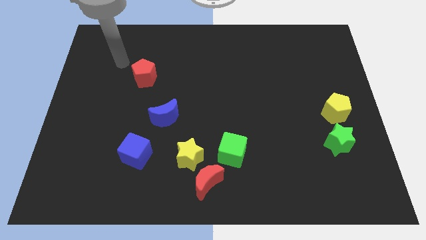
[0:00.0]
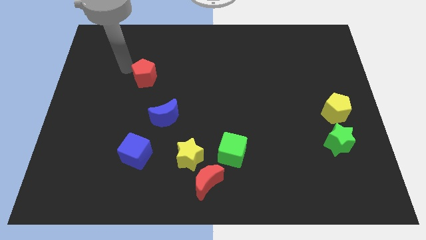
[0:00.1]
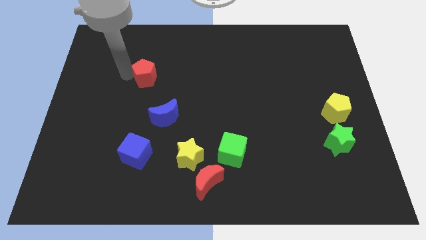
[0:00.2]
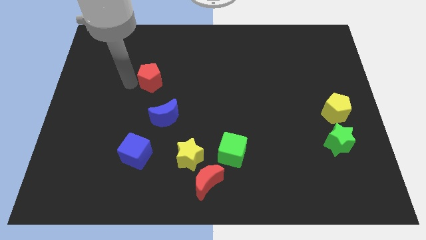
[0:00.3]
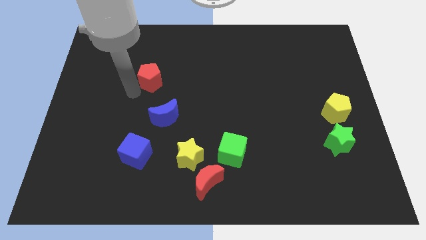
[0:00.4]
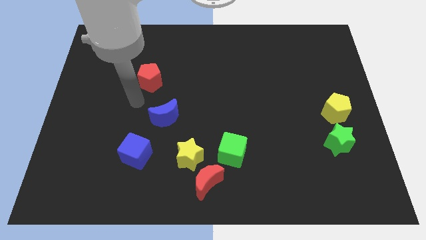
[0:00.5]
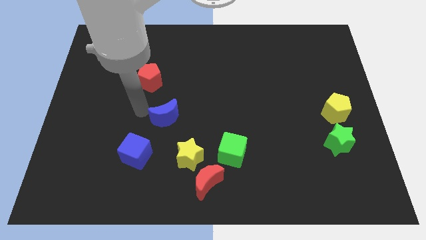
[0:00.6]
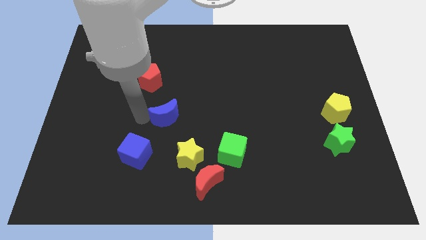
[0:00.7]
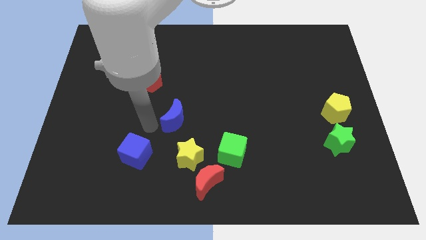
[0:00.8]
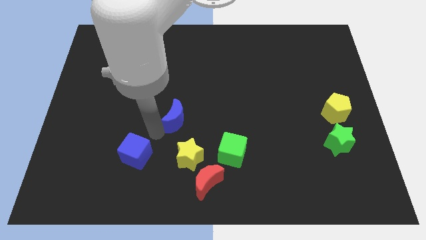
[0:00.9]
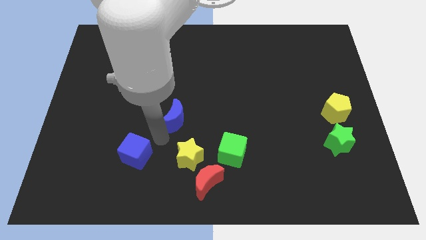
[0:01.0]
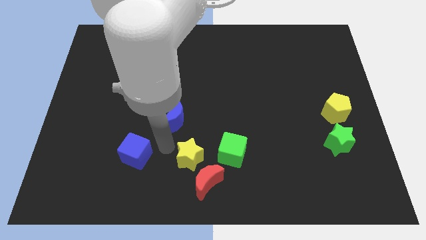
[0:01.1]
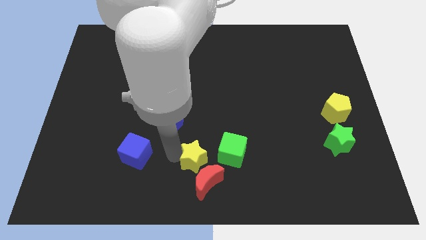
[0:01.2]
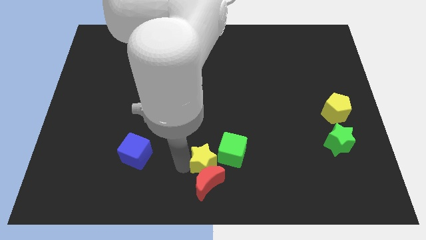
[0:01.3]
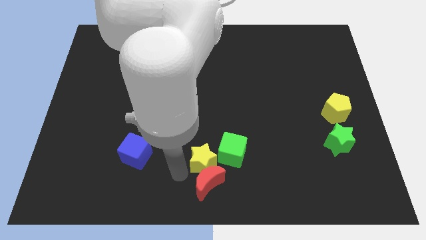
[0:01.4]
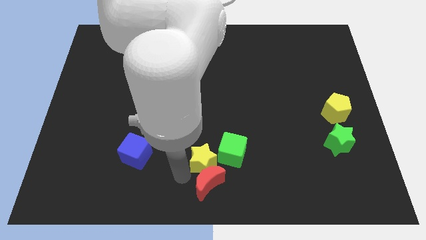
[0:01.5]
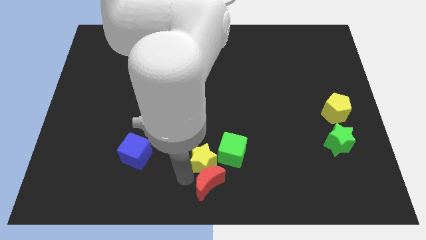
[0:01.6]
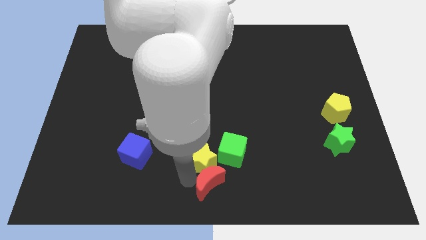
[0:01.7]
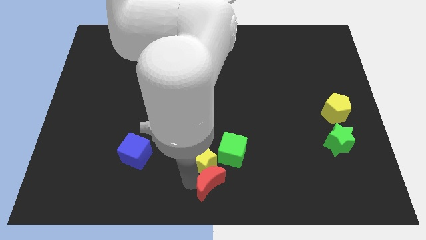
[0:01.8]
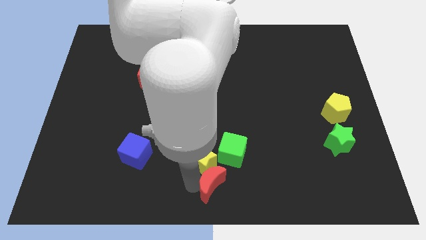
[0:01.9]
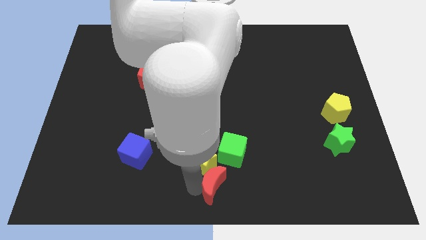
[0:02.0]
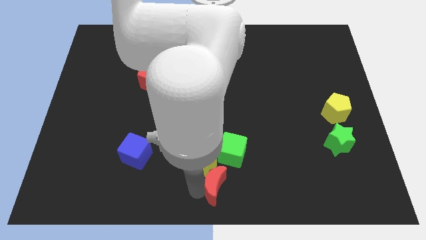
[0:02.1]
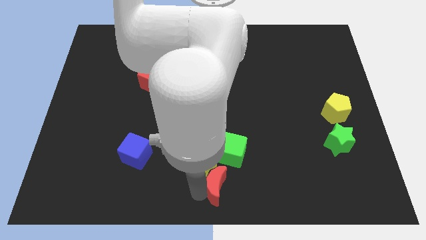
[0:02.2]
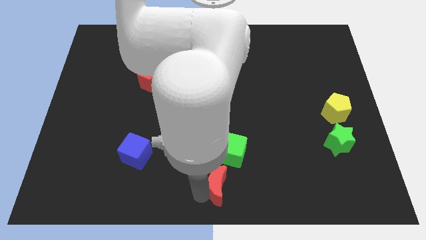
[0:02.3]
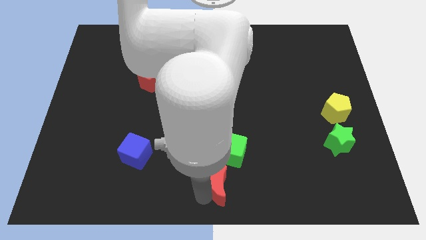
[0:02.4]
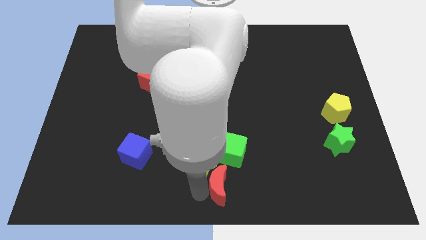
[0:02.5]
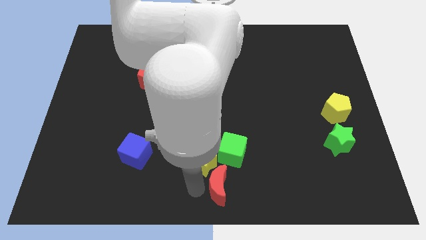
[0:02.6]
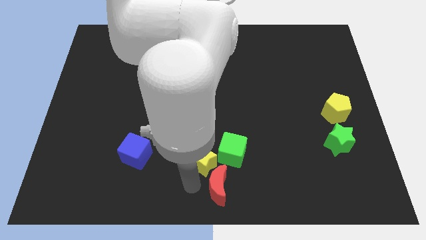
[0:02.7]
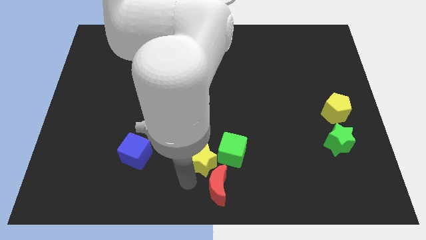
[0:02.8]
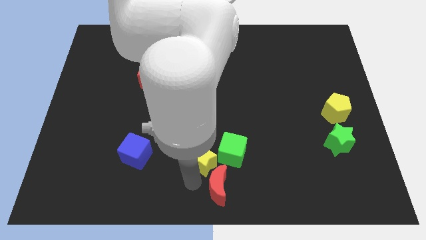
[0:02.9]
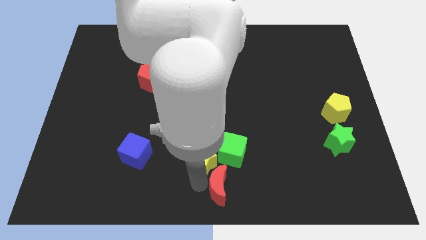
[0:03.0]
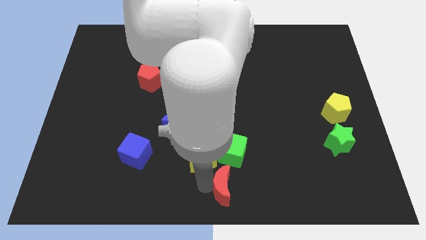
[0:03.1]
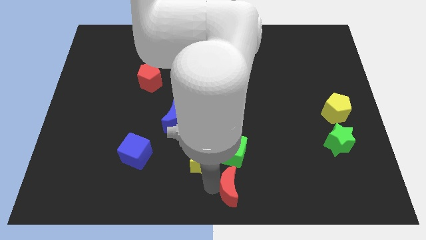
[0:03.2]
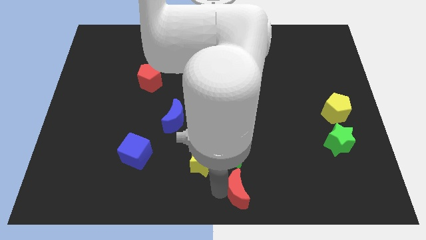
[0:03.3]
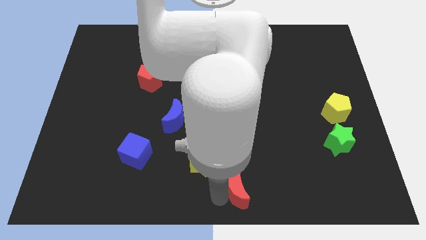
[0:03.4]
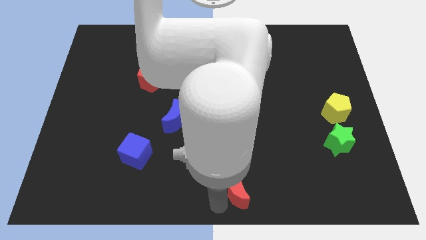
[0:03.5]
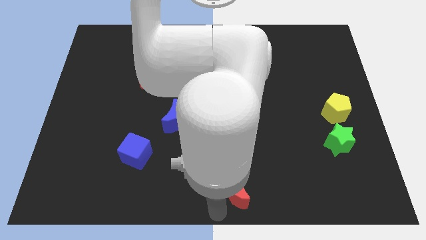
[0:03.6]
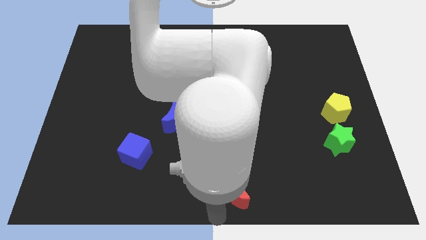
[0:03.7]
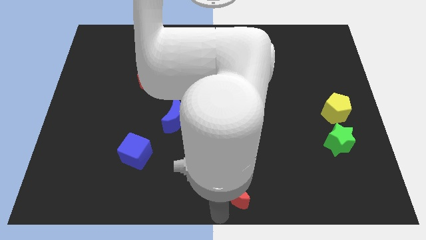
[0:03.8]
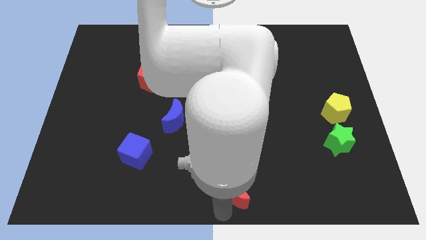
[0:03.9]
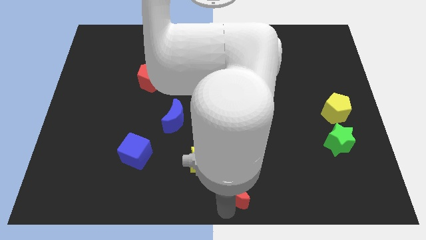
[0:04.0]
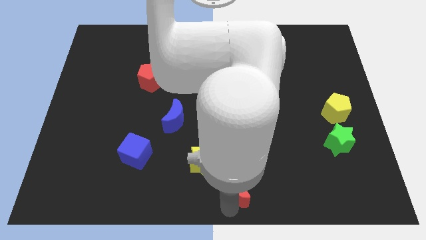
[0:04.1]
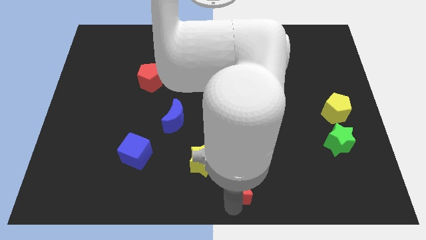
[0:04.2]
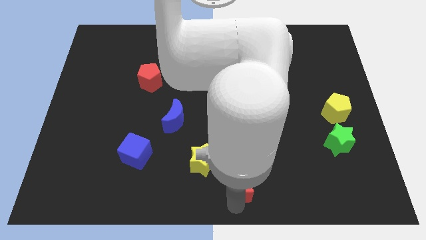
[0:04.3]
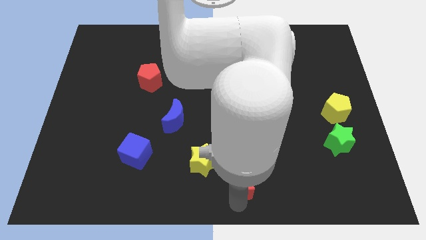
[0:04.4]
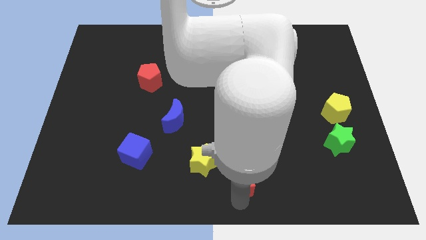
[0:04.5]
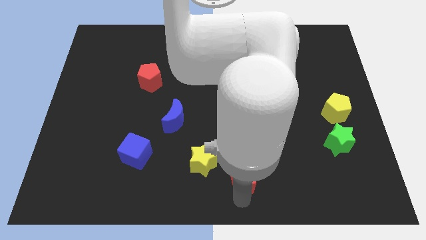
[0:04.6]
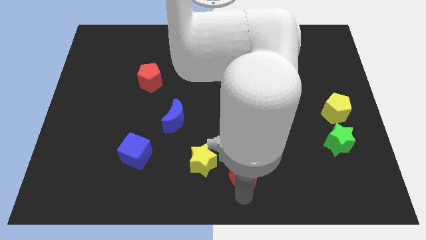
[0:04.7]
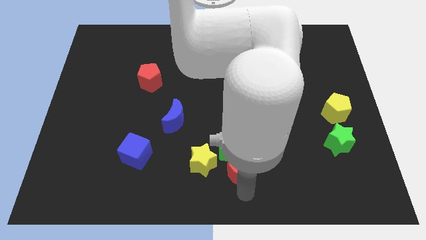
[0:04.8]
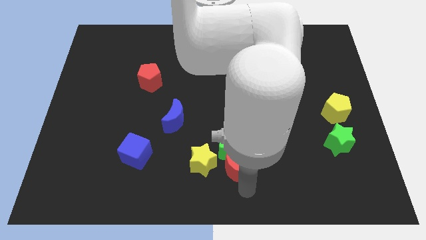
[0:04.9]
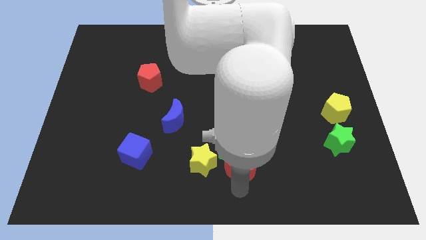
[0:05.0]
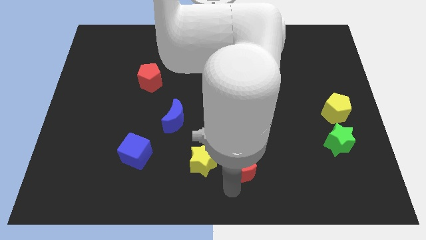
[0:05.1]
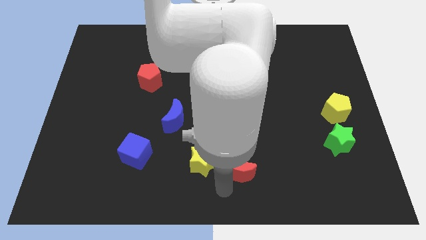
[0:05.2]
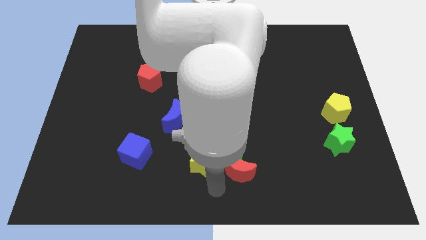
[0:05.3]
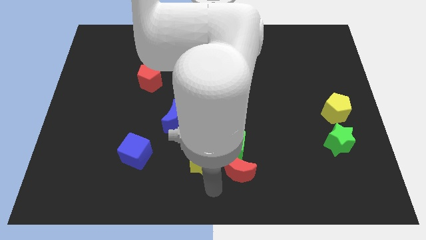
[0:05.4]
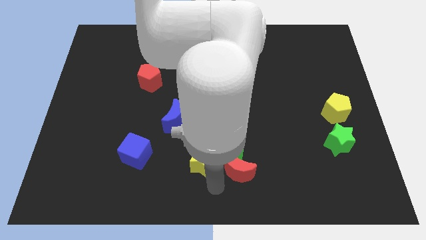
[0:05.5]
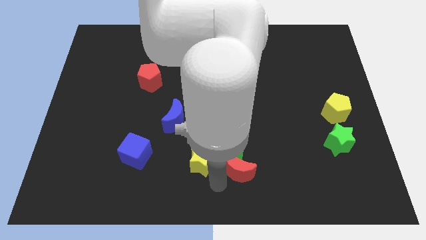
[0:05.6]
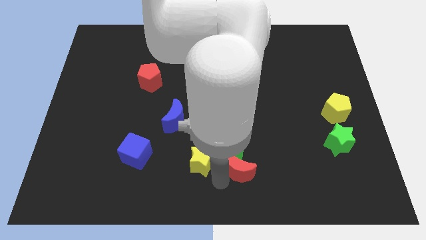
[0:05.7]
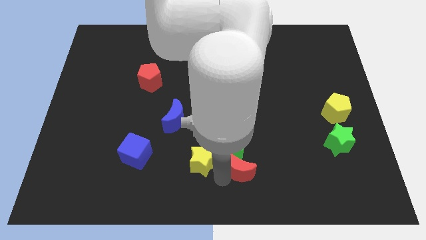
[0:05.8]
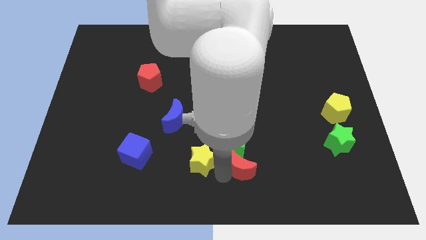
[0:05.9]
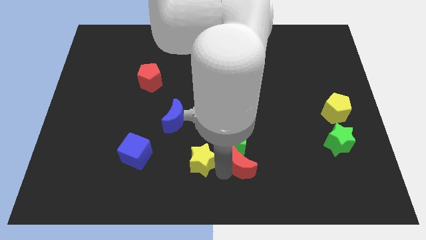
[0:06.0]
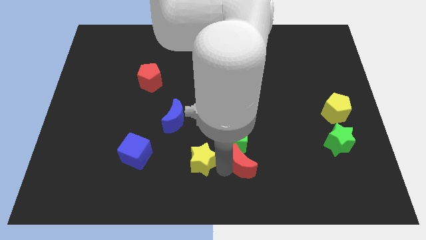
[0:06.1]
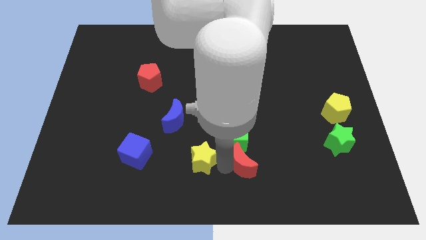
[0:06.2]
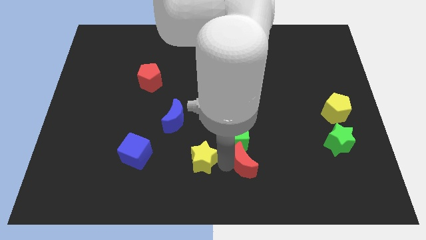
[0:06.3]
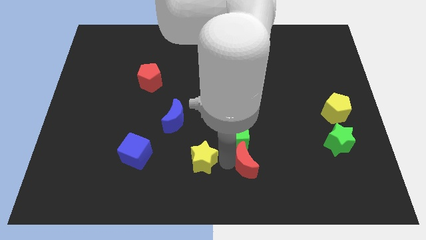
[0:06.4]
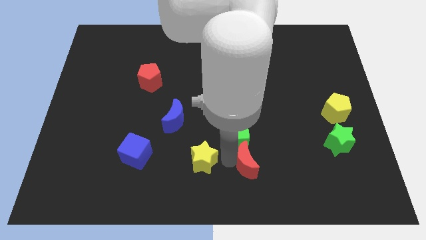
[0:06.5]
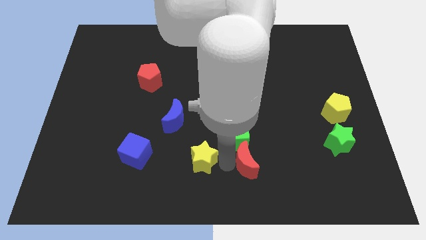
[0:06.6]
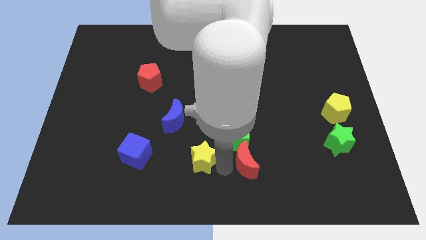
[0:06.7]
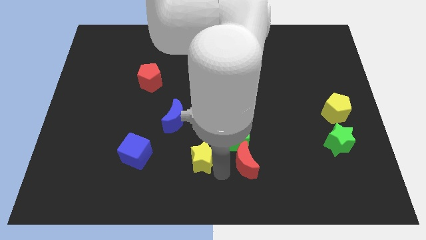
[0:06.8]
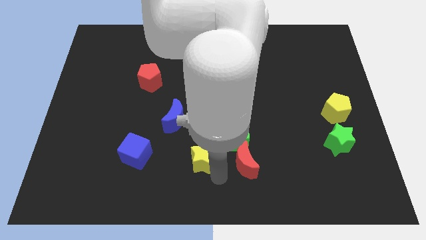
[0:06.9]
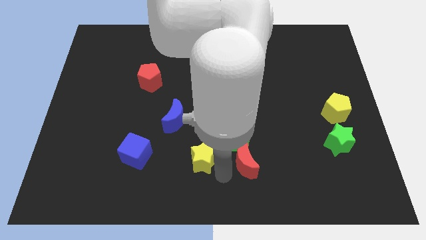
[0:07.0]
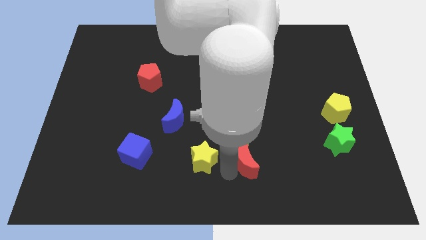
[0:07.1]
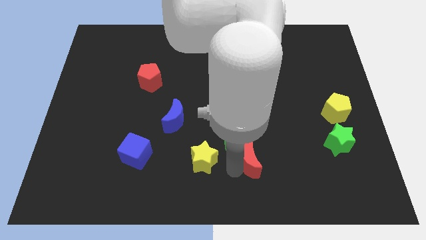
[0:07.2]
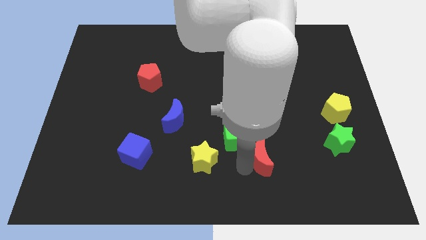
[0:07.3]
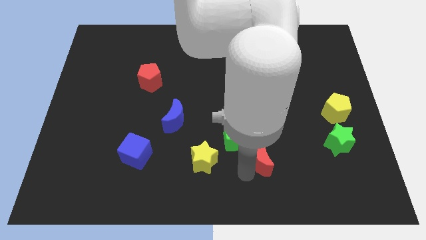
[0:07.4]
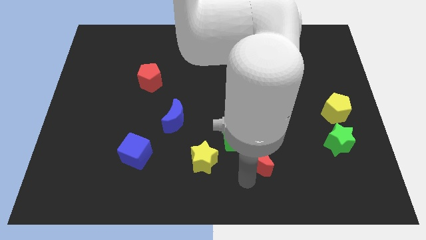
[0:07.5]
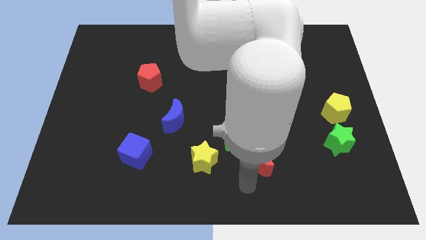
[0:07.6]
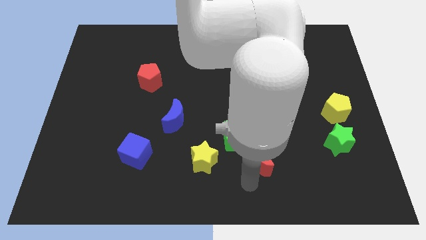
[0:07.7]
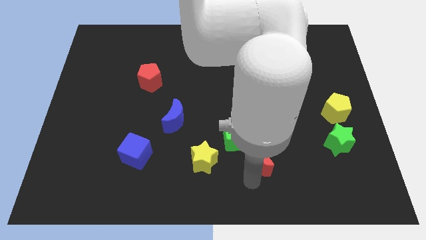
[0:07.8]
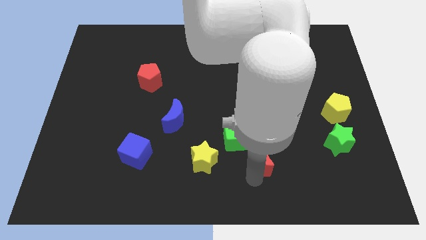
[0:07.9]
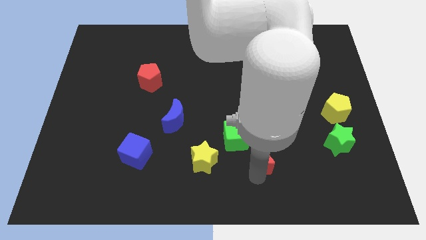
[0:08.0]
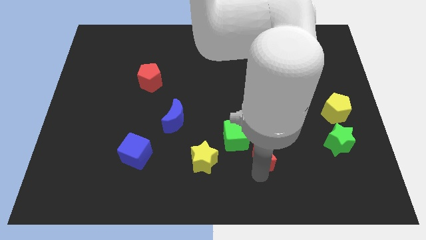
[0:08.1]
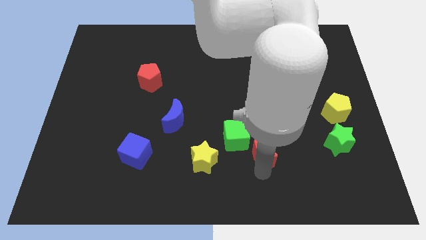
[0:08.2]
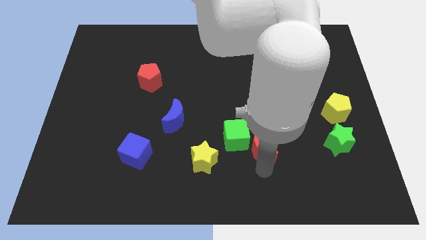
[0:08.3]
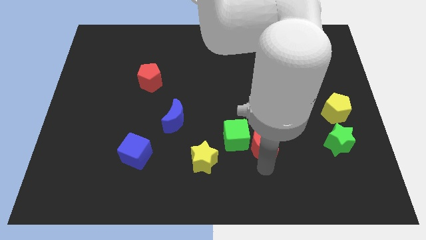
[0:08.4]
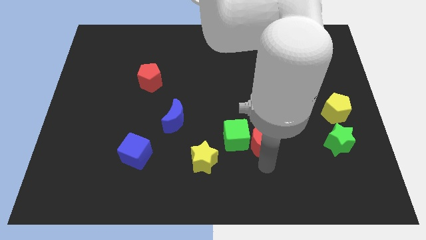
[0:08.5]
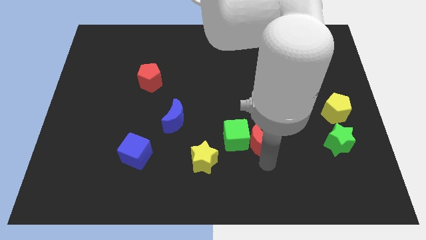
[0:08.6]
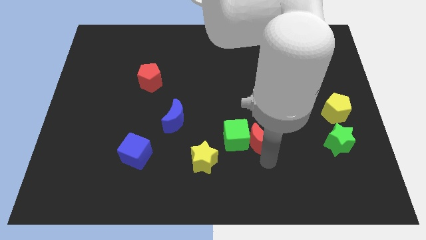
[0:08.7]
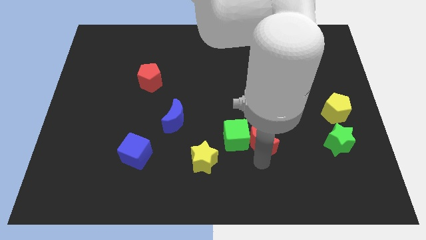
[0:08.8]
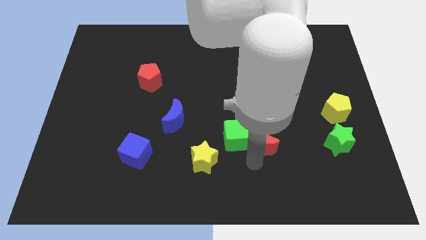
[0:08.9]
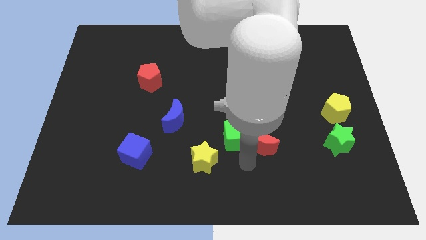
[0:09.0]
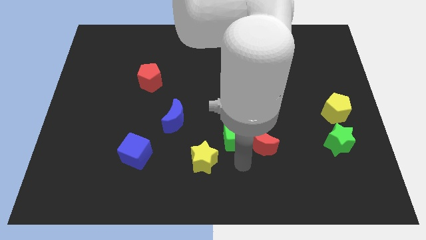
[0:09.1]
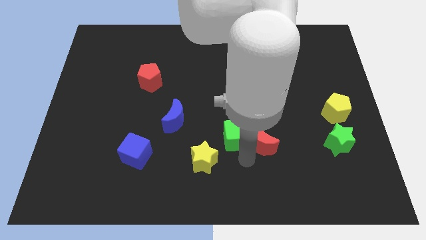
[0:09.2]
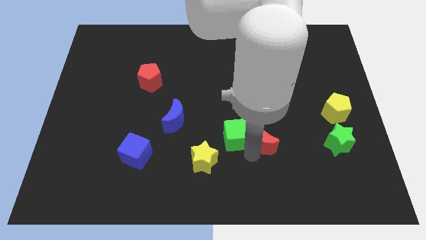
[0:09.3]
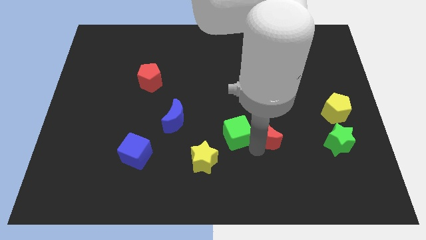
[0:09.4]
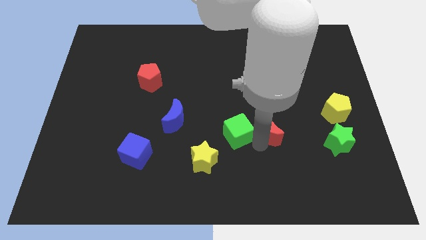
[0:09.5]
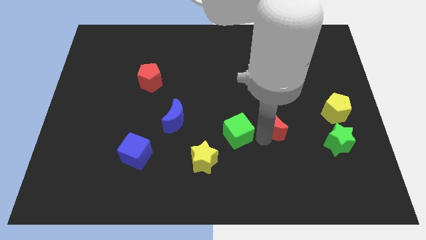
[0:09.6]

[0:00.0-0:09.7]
slide the red moon up and to the right diagonally
